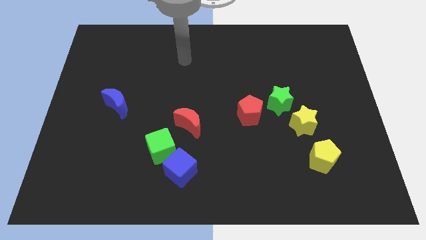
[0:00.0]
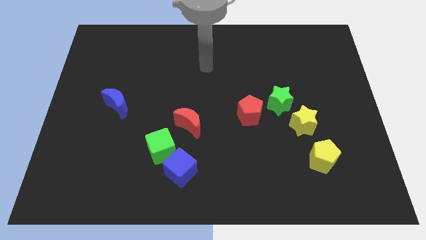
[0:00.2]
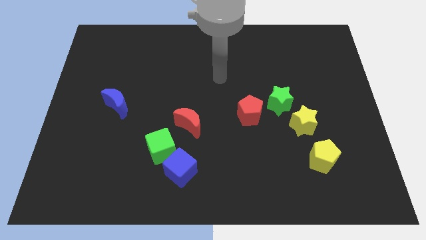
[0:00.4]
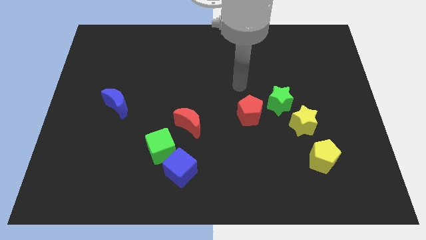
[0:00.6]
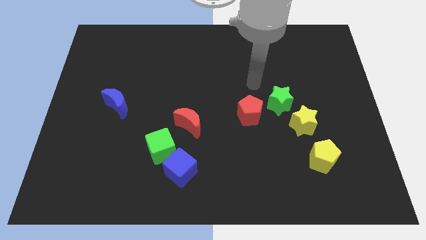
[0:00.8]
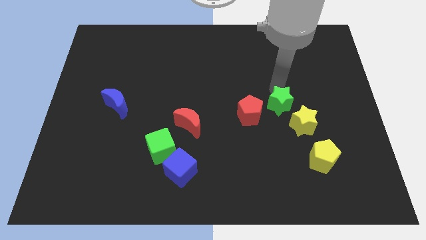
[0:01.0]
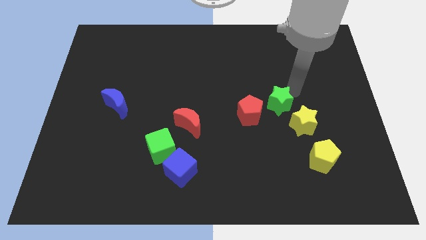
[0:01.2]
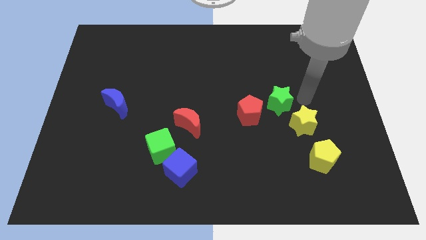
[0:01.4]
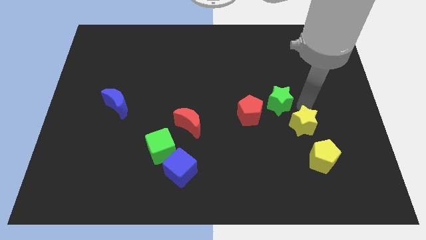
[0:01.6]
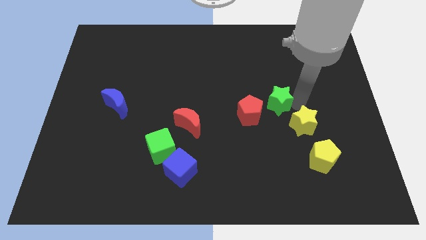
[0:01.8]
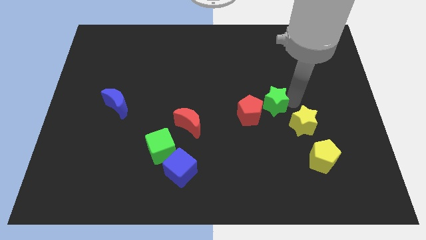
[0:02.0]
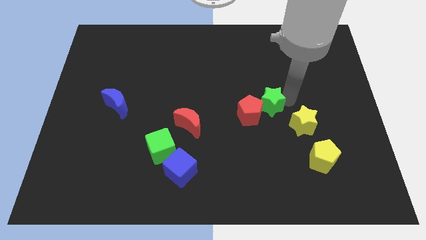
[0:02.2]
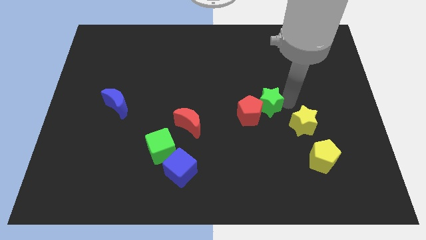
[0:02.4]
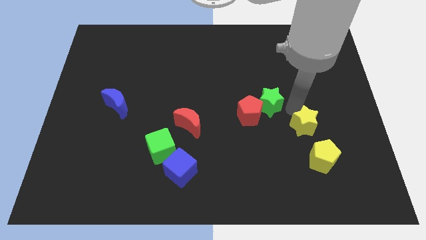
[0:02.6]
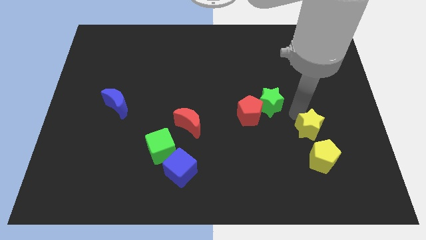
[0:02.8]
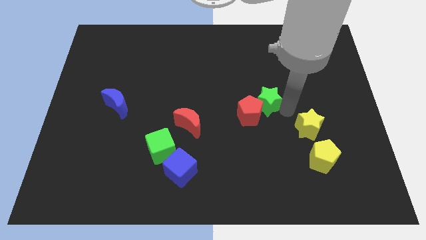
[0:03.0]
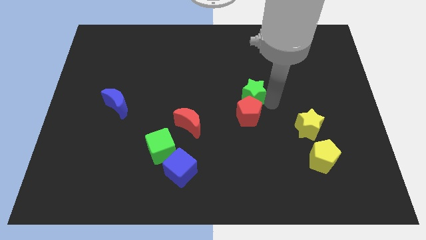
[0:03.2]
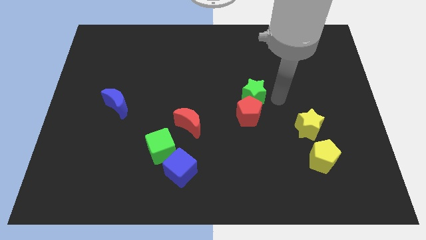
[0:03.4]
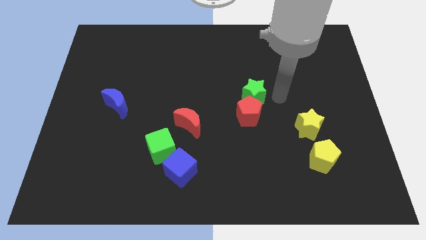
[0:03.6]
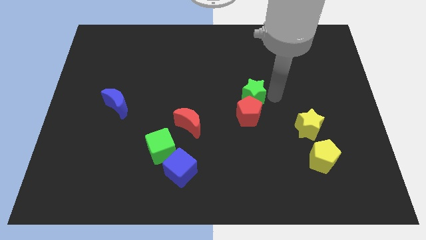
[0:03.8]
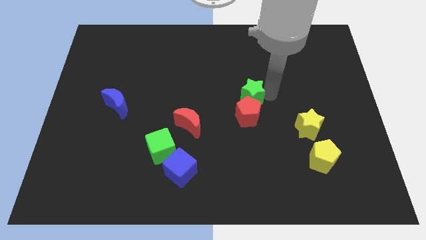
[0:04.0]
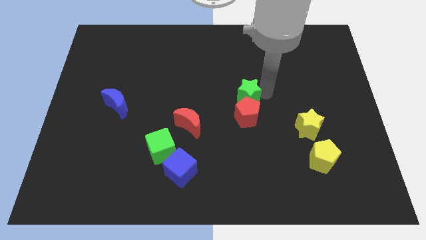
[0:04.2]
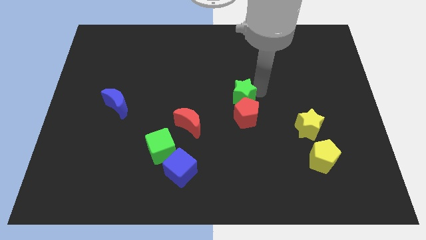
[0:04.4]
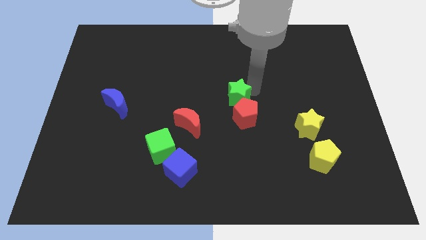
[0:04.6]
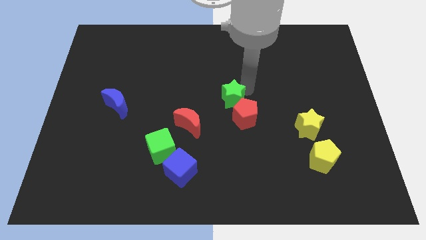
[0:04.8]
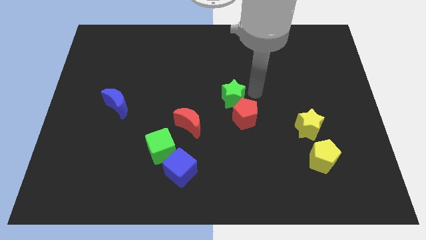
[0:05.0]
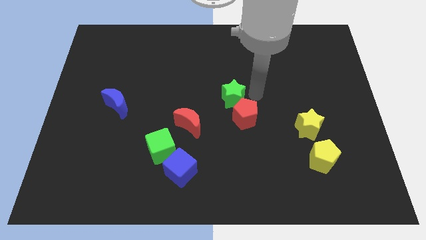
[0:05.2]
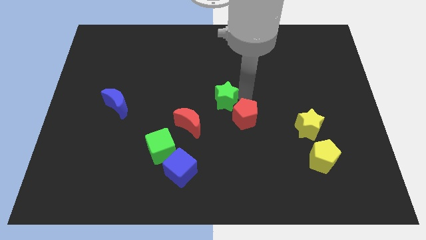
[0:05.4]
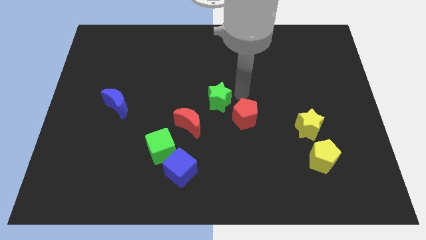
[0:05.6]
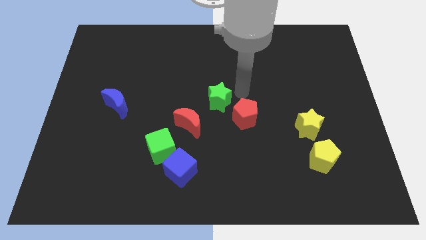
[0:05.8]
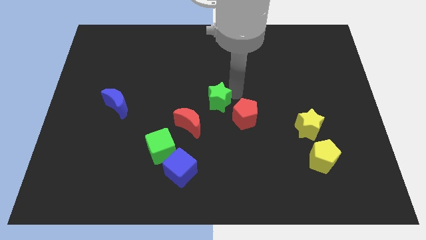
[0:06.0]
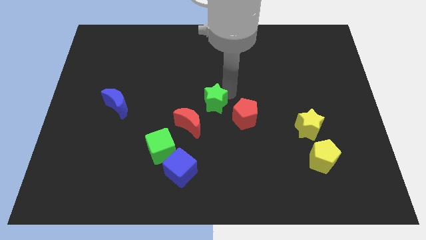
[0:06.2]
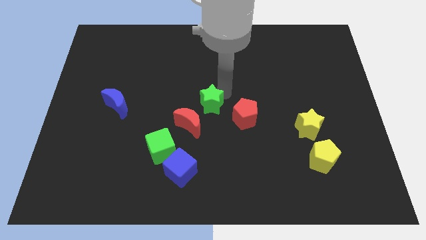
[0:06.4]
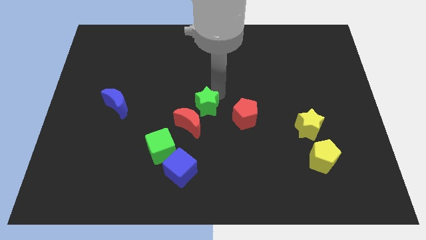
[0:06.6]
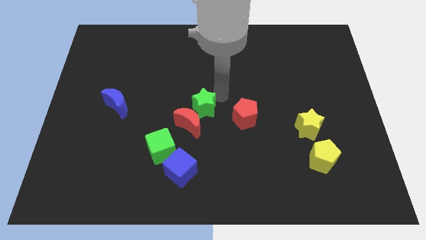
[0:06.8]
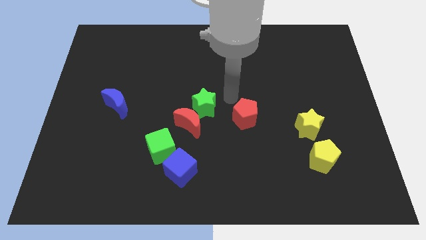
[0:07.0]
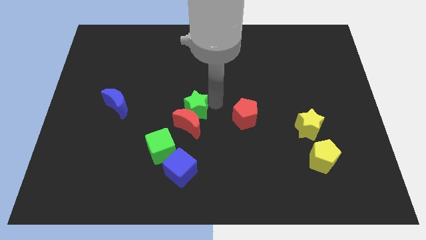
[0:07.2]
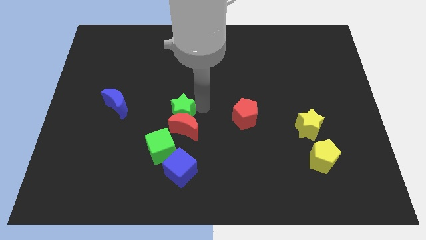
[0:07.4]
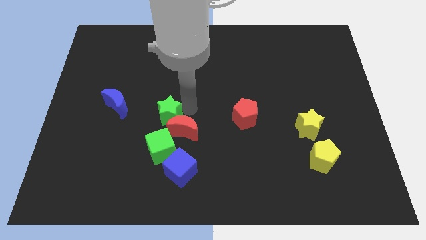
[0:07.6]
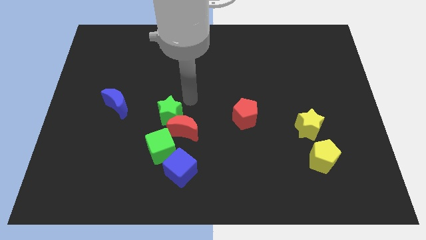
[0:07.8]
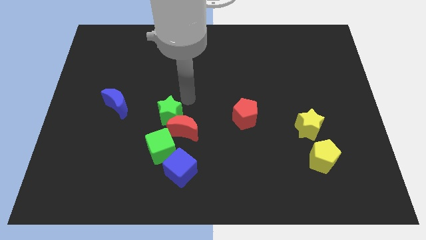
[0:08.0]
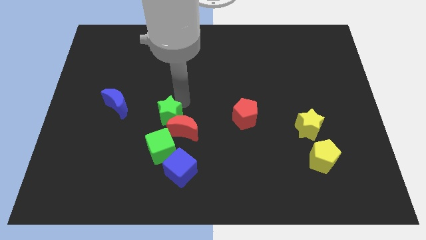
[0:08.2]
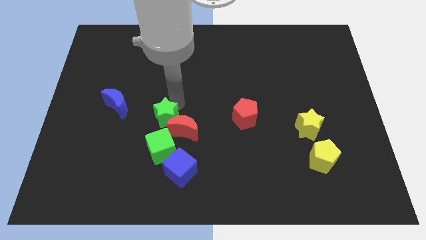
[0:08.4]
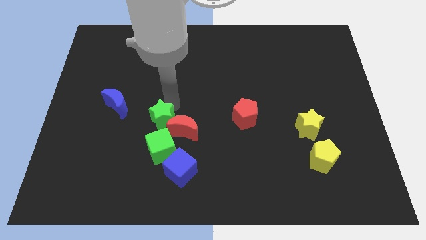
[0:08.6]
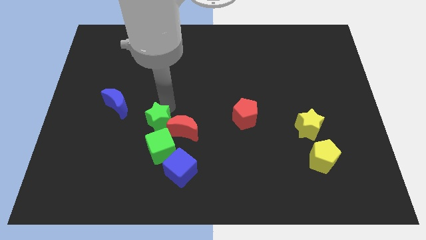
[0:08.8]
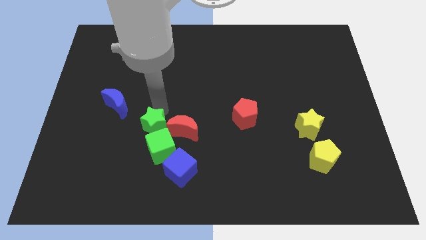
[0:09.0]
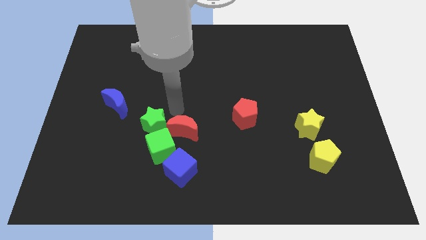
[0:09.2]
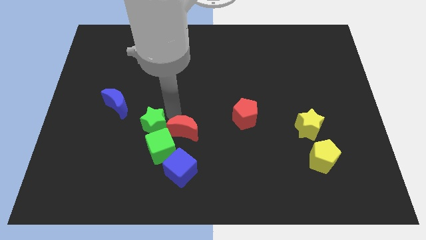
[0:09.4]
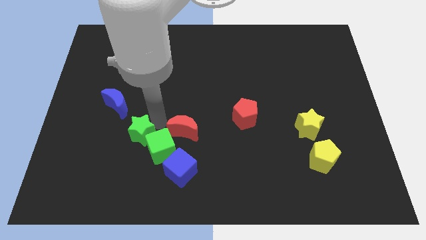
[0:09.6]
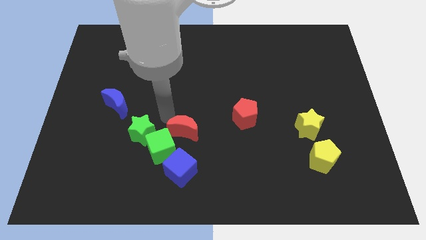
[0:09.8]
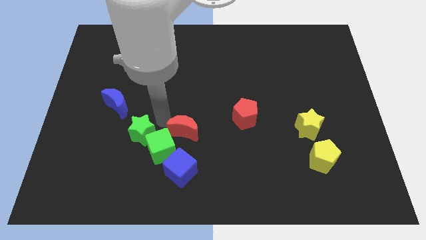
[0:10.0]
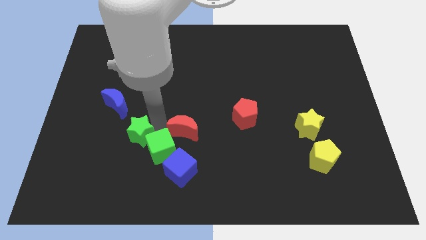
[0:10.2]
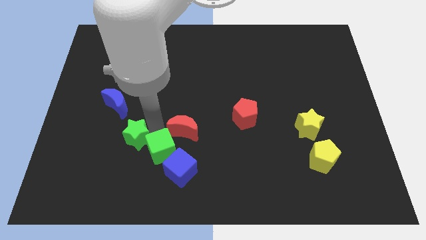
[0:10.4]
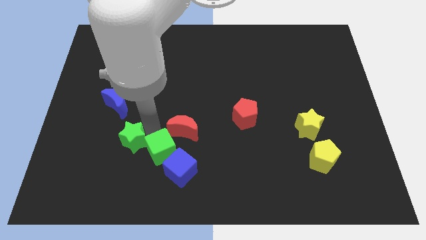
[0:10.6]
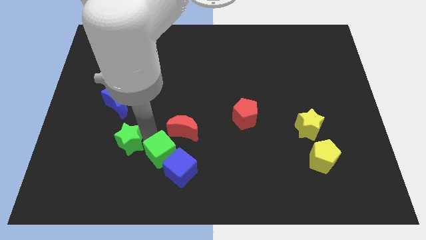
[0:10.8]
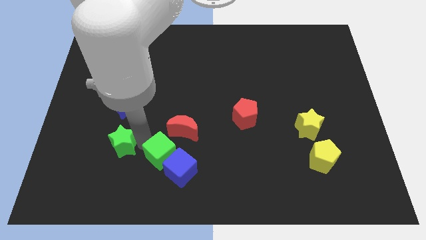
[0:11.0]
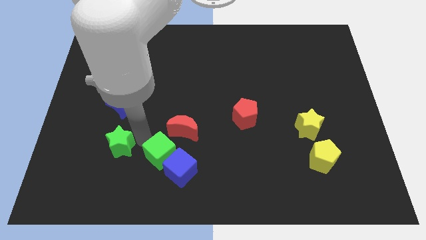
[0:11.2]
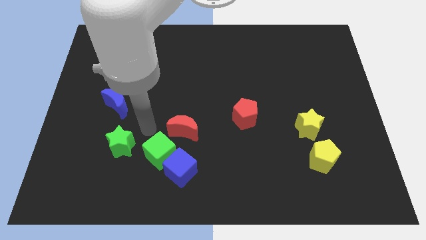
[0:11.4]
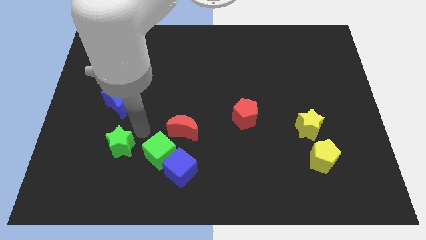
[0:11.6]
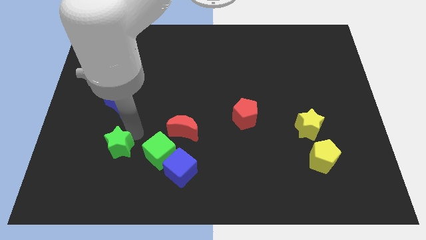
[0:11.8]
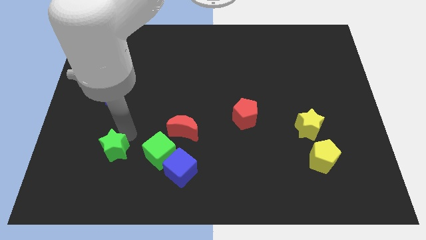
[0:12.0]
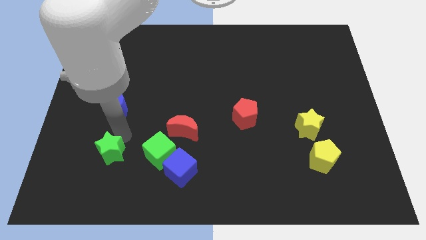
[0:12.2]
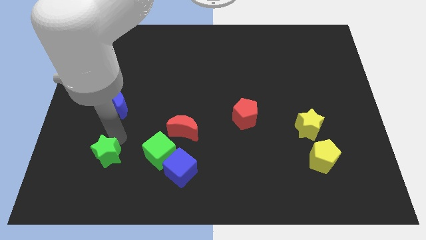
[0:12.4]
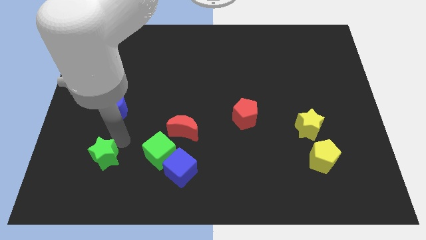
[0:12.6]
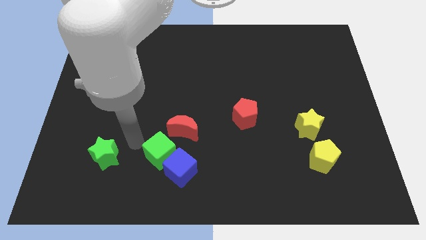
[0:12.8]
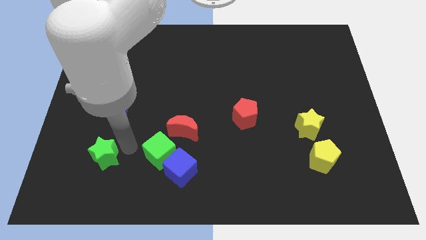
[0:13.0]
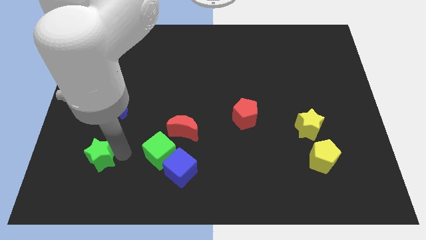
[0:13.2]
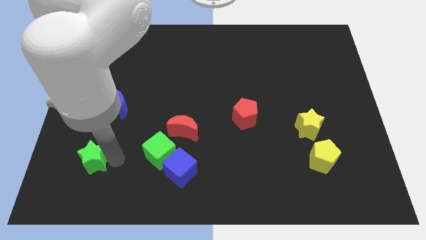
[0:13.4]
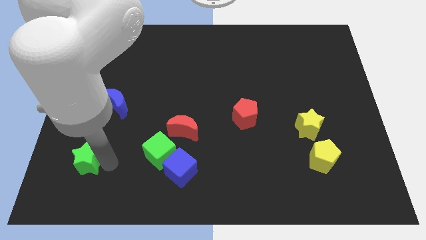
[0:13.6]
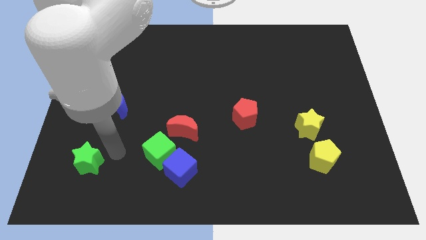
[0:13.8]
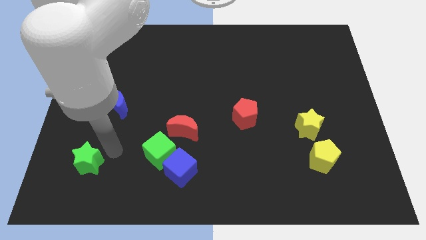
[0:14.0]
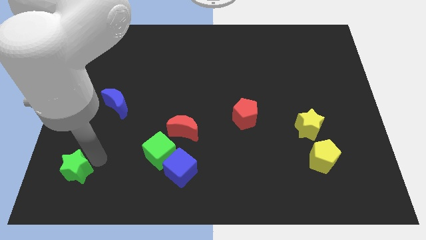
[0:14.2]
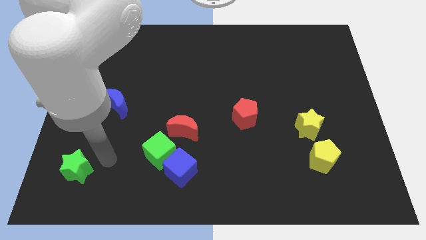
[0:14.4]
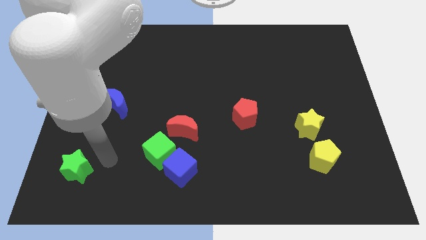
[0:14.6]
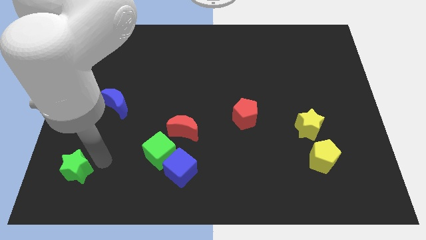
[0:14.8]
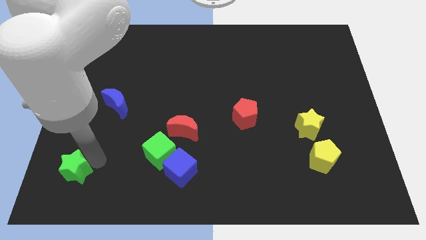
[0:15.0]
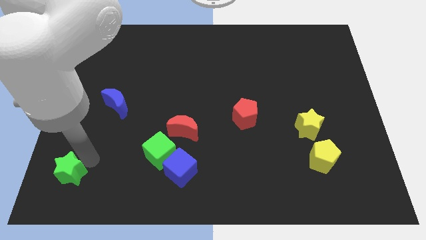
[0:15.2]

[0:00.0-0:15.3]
push the green star to the lower left corner
